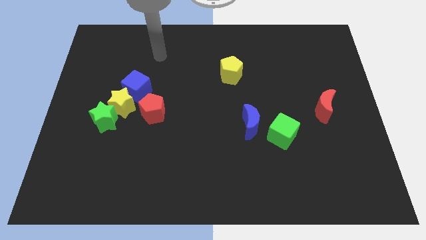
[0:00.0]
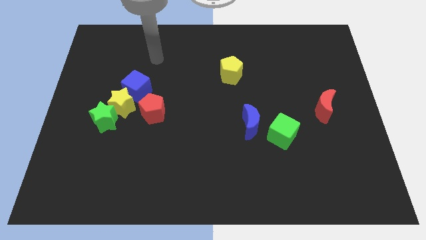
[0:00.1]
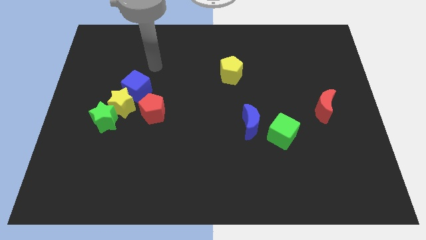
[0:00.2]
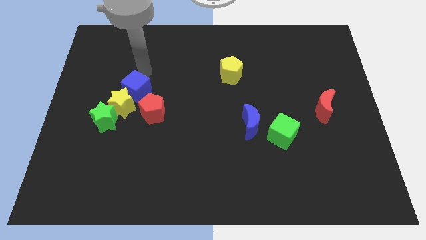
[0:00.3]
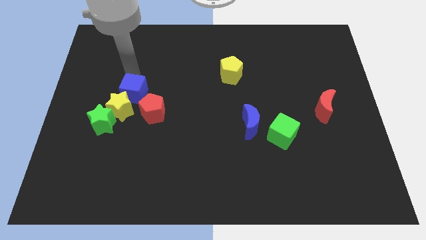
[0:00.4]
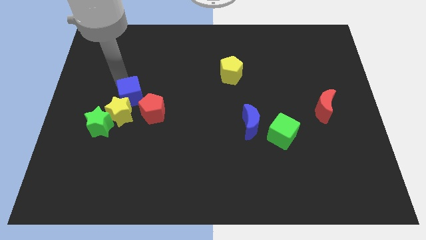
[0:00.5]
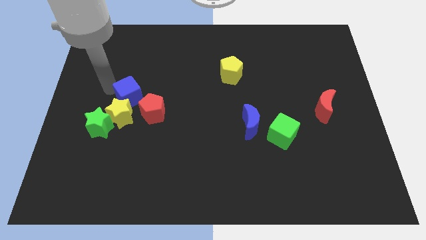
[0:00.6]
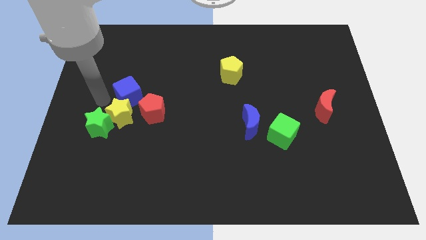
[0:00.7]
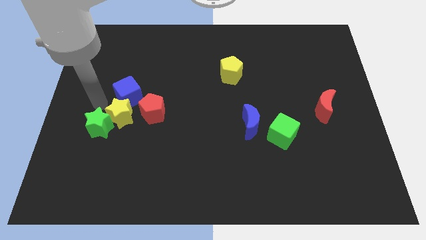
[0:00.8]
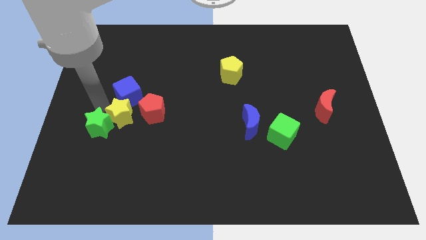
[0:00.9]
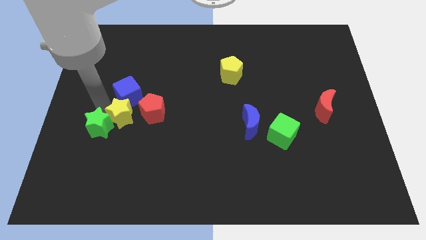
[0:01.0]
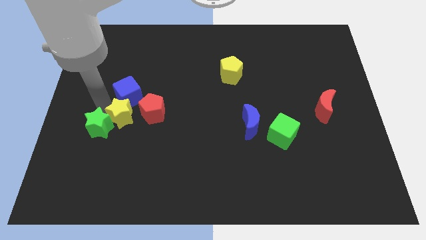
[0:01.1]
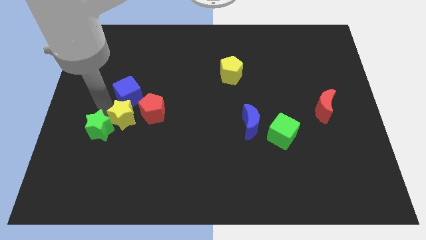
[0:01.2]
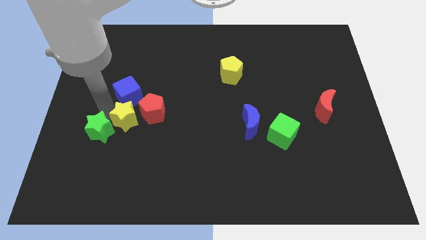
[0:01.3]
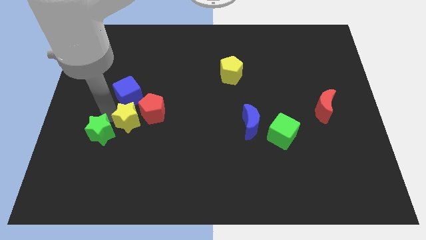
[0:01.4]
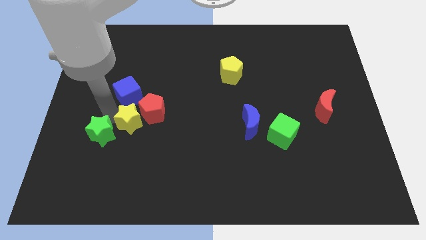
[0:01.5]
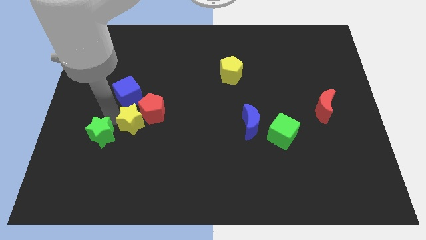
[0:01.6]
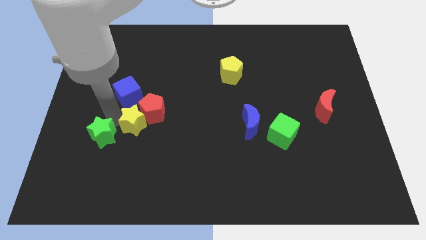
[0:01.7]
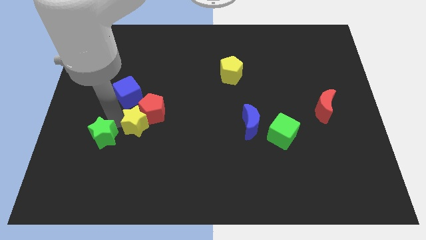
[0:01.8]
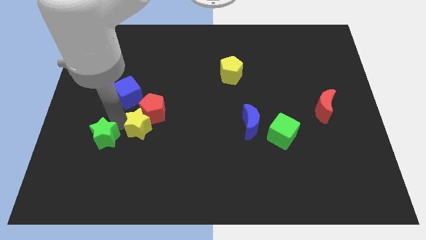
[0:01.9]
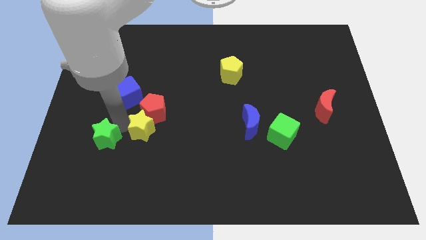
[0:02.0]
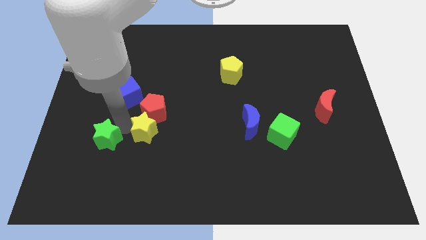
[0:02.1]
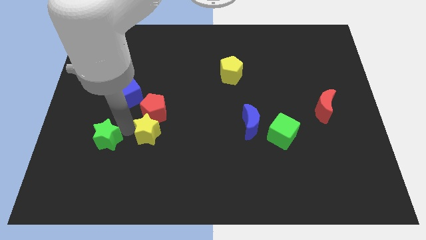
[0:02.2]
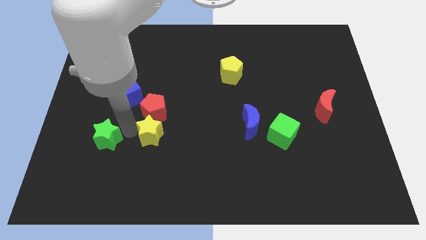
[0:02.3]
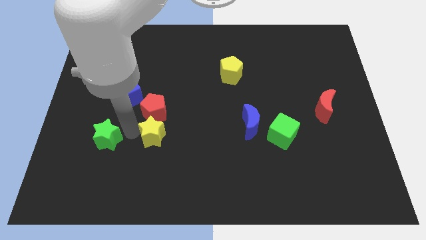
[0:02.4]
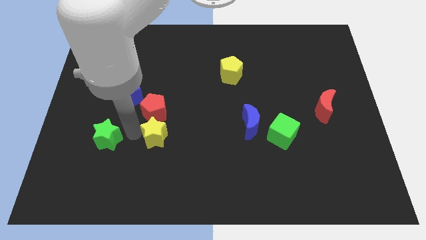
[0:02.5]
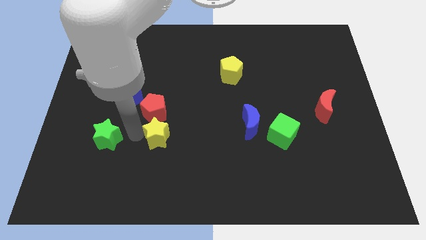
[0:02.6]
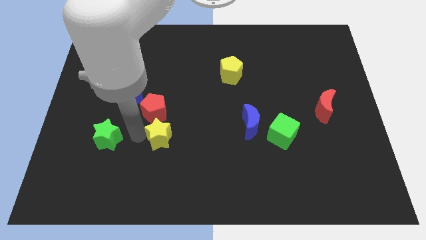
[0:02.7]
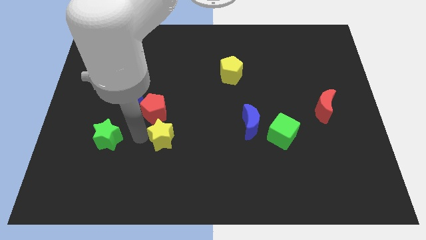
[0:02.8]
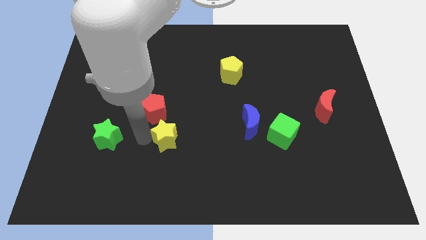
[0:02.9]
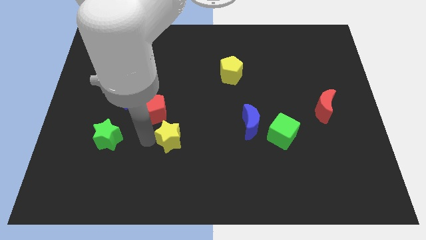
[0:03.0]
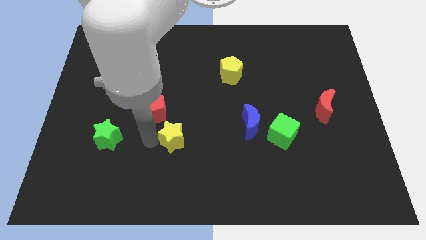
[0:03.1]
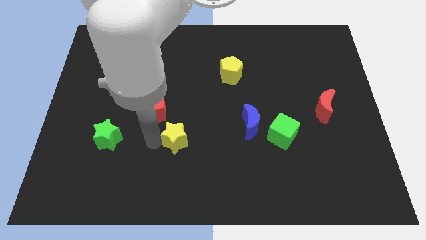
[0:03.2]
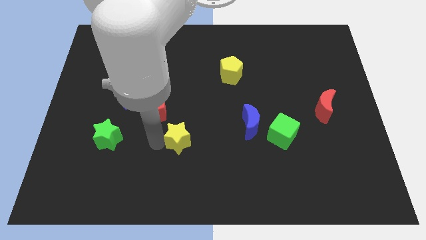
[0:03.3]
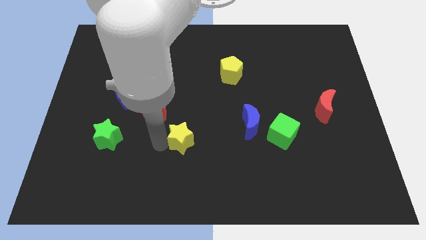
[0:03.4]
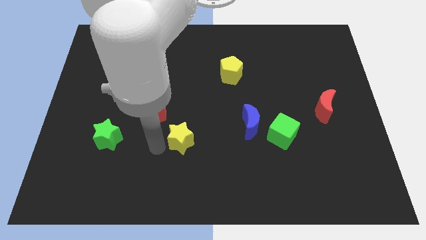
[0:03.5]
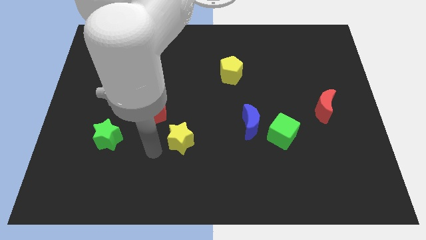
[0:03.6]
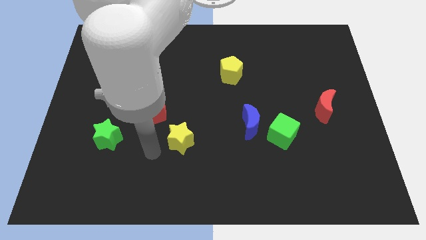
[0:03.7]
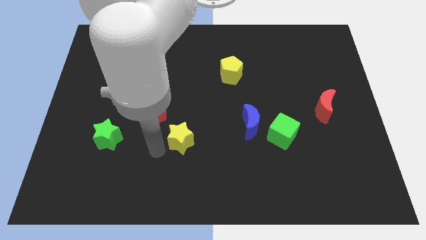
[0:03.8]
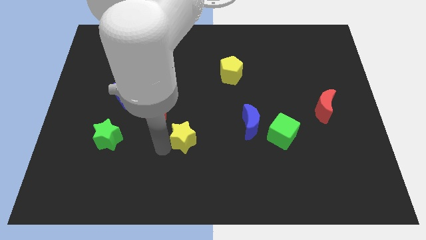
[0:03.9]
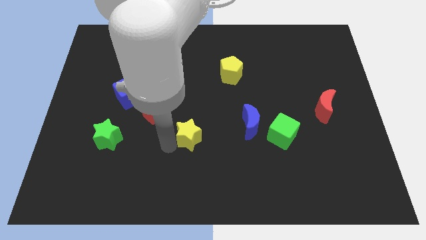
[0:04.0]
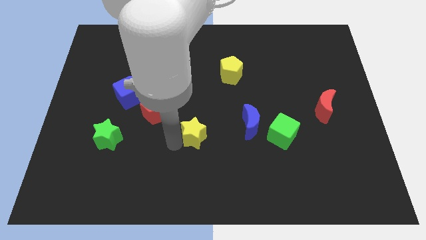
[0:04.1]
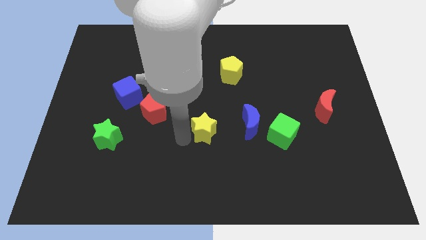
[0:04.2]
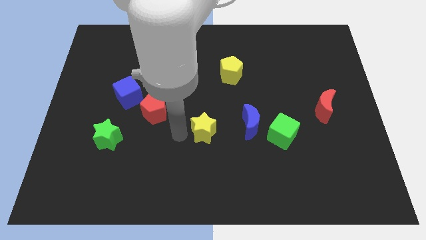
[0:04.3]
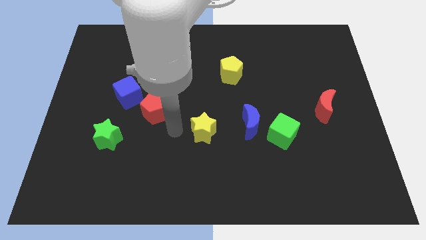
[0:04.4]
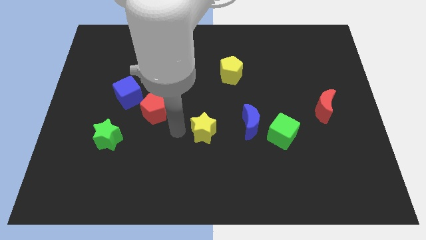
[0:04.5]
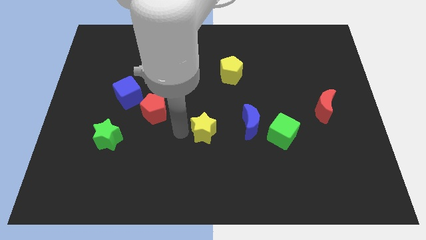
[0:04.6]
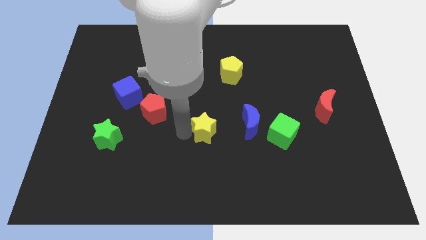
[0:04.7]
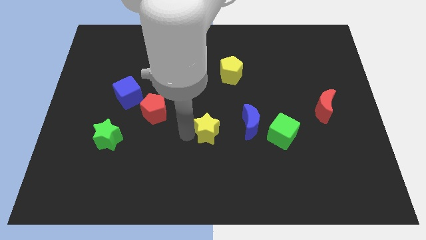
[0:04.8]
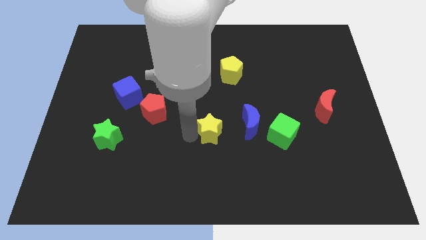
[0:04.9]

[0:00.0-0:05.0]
put the yellow star left of the green cube

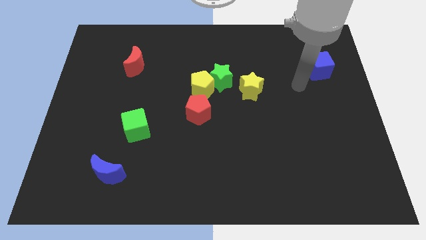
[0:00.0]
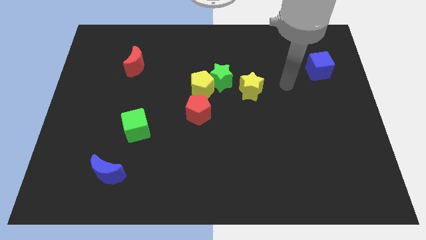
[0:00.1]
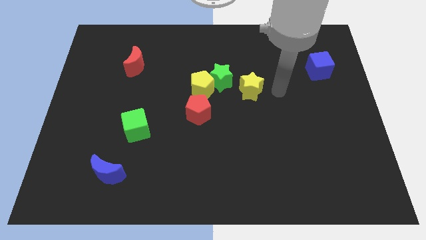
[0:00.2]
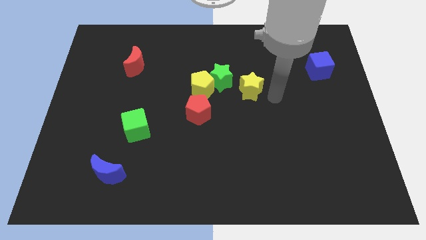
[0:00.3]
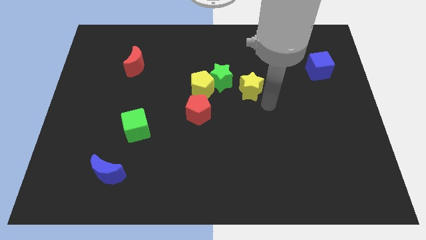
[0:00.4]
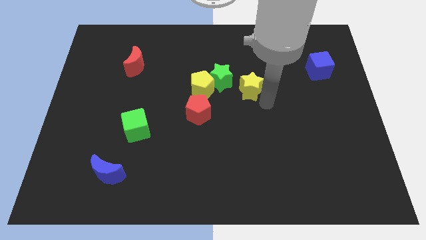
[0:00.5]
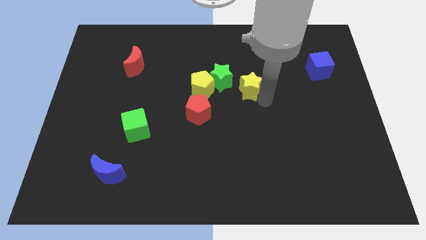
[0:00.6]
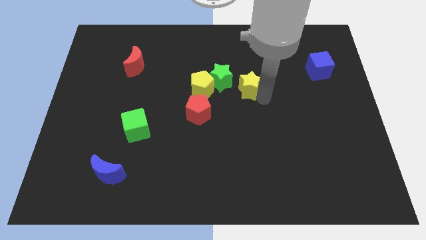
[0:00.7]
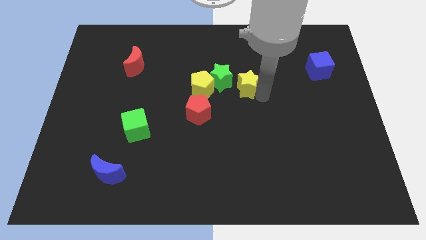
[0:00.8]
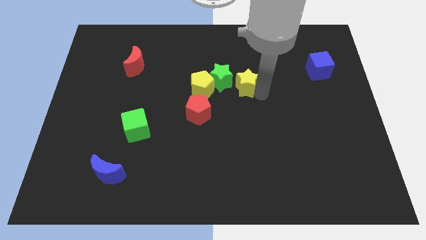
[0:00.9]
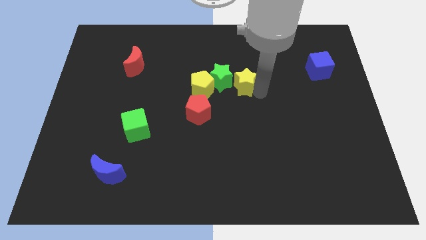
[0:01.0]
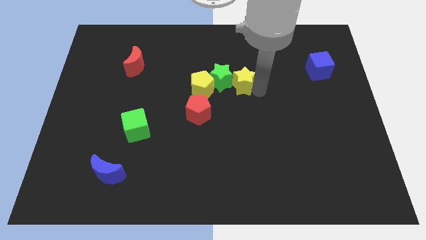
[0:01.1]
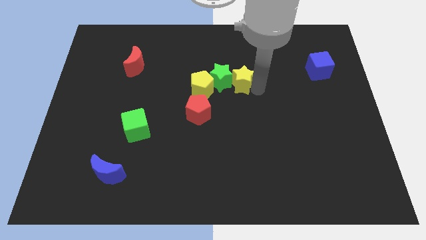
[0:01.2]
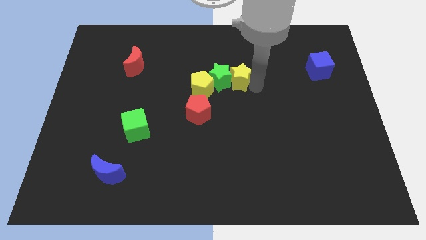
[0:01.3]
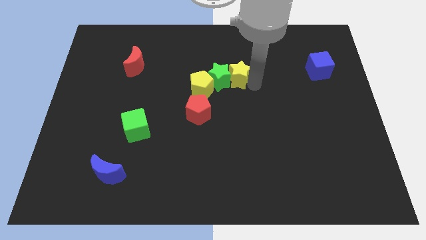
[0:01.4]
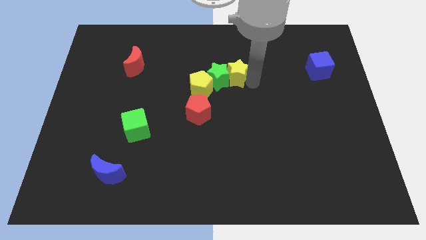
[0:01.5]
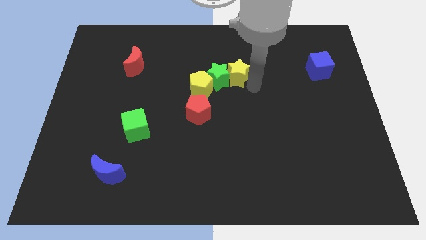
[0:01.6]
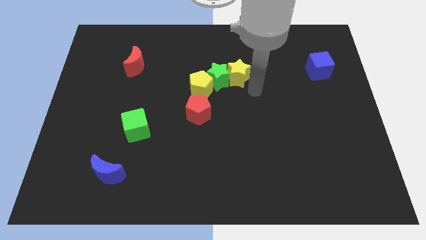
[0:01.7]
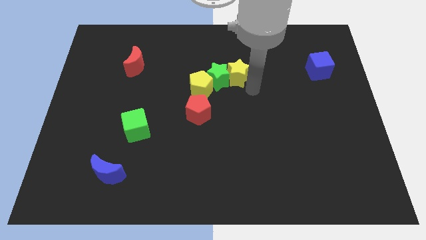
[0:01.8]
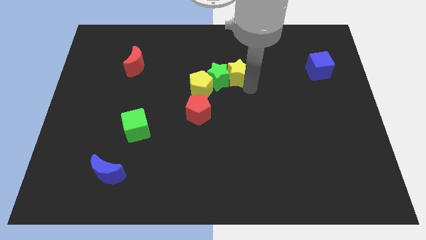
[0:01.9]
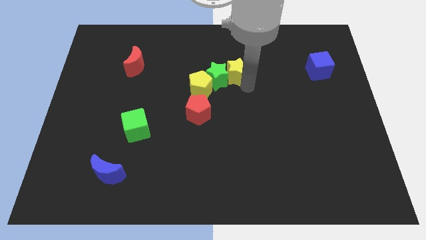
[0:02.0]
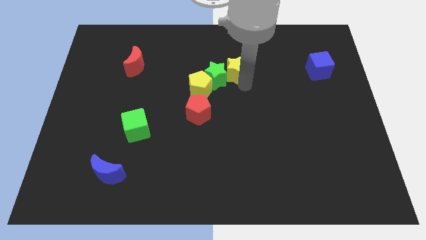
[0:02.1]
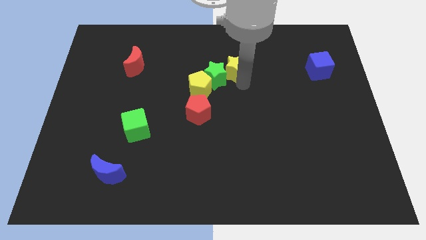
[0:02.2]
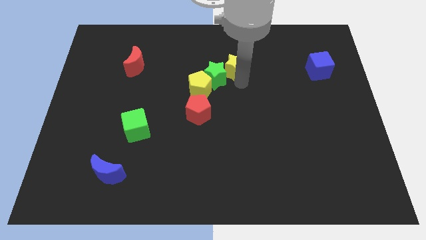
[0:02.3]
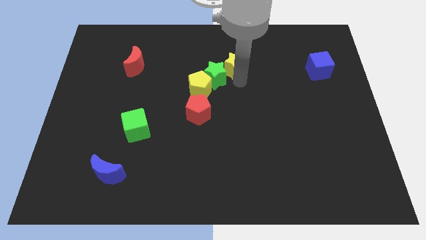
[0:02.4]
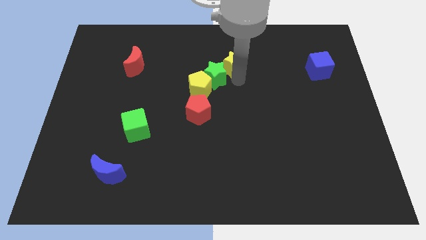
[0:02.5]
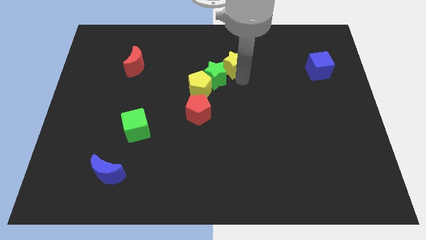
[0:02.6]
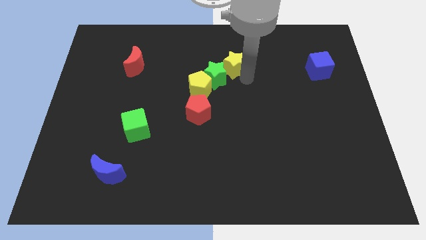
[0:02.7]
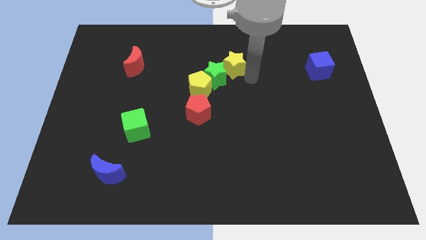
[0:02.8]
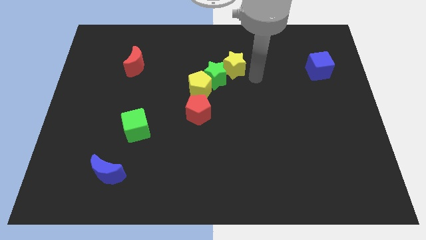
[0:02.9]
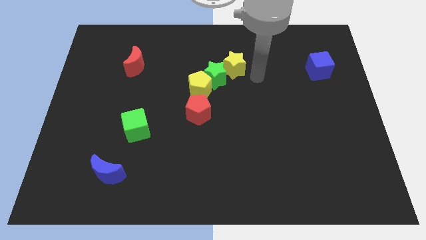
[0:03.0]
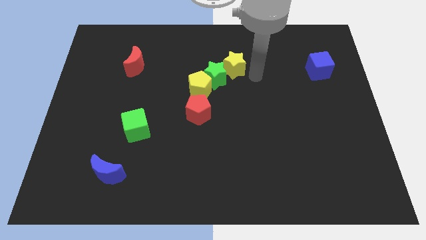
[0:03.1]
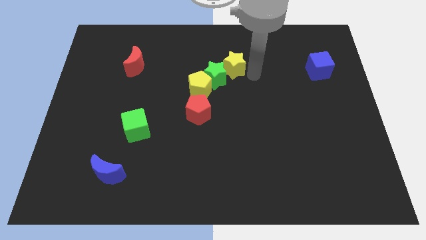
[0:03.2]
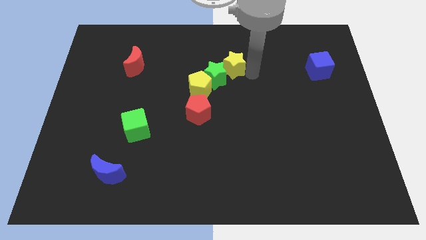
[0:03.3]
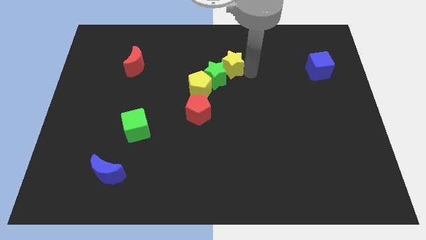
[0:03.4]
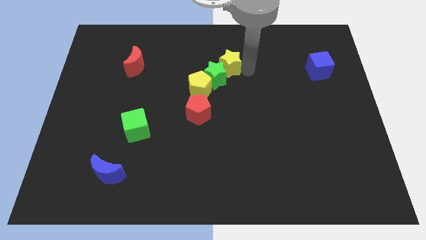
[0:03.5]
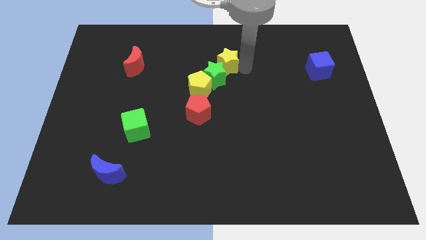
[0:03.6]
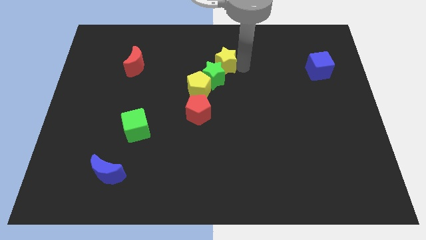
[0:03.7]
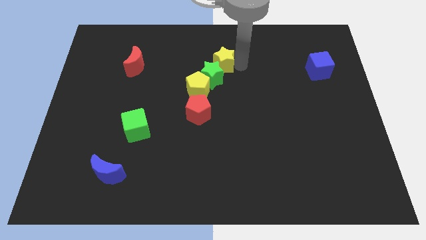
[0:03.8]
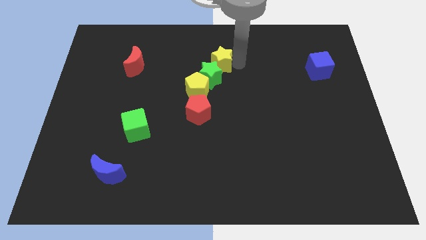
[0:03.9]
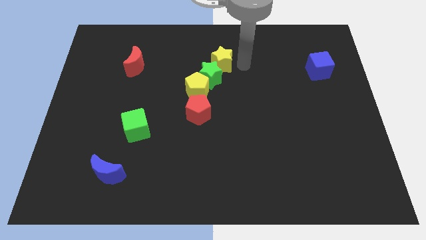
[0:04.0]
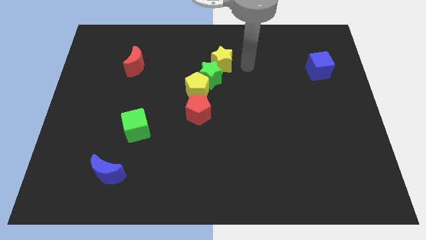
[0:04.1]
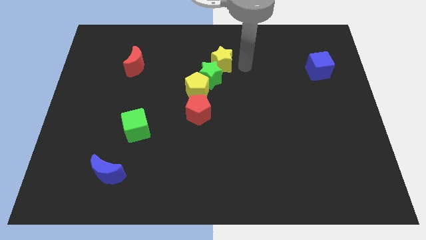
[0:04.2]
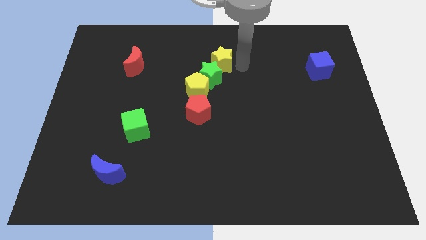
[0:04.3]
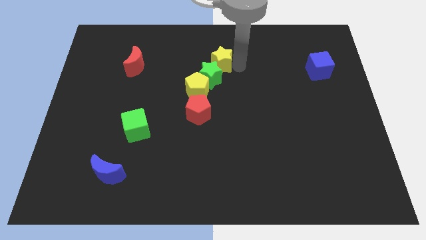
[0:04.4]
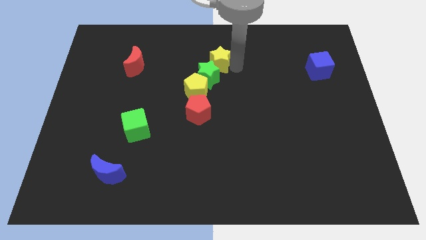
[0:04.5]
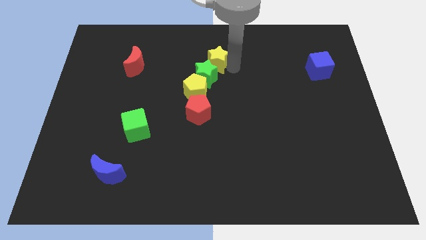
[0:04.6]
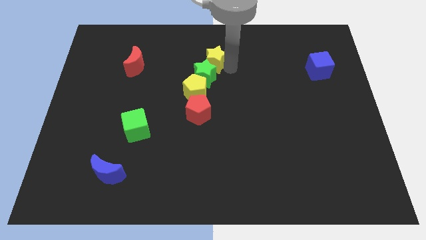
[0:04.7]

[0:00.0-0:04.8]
slide the yellow star to the top side of the yellow pentagon
